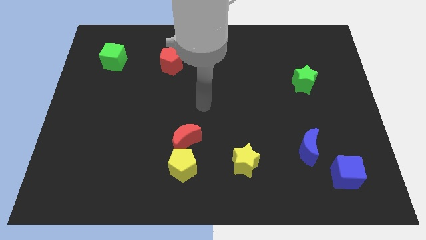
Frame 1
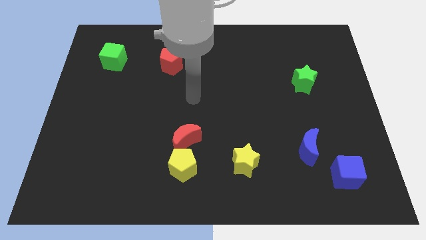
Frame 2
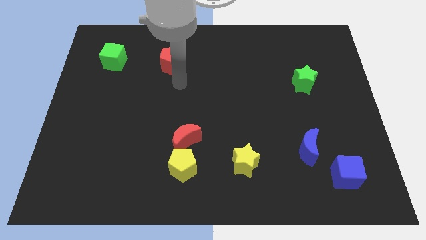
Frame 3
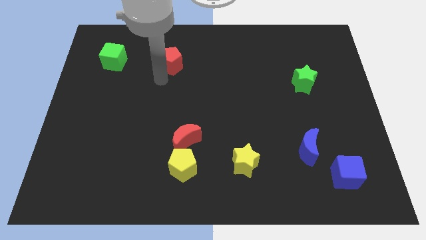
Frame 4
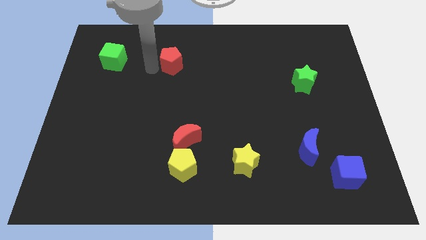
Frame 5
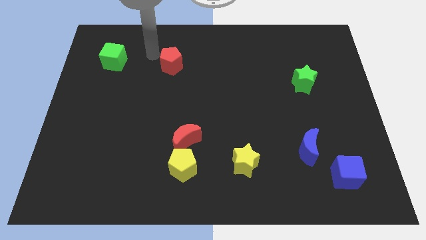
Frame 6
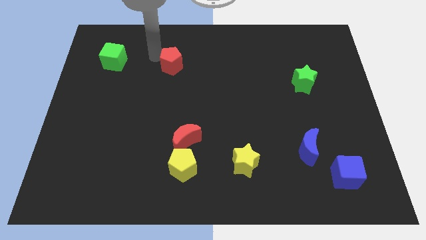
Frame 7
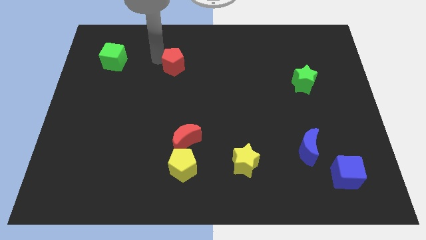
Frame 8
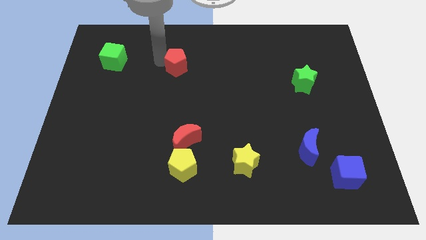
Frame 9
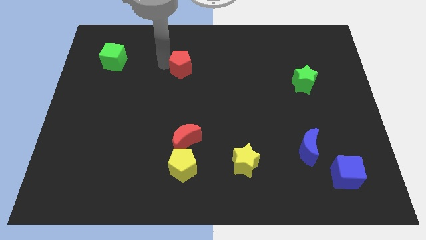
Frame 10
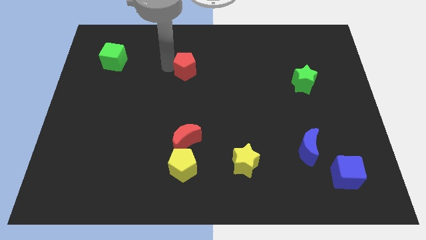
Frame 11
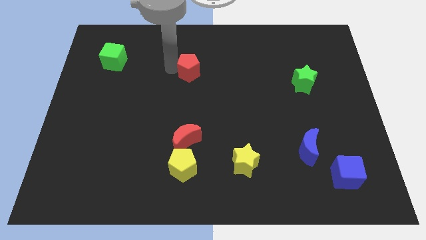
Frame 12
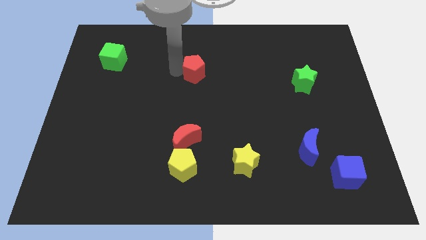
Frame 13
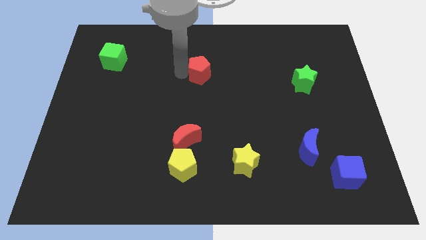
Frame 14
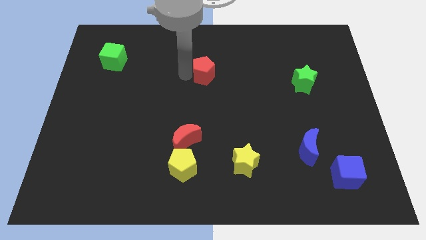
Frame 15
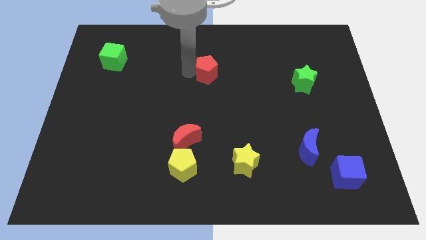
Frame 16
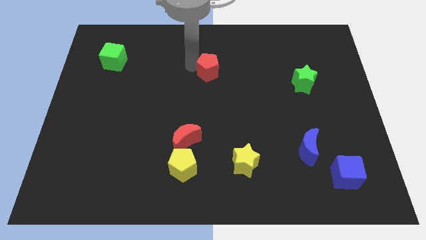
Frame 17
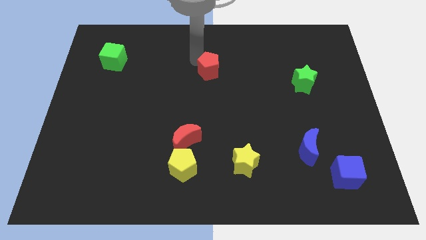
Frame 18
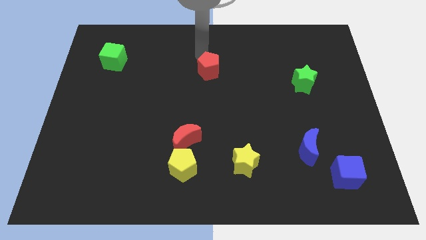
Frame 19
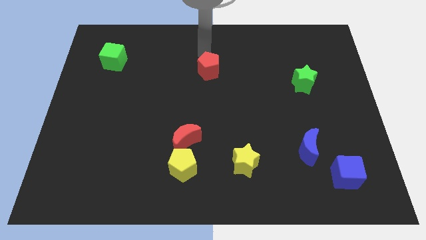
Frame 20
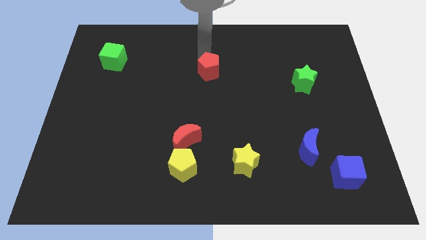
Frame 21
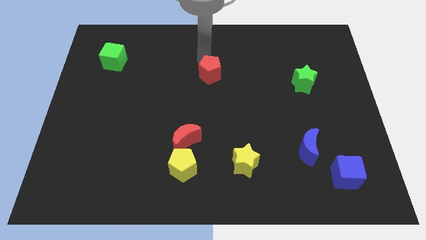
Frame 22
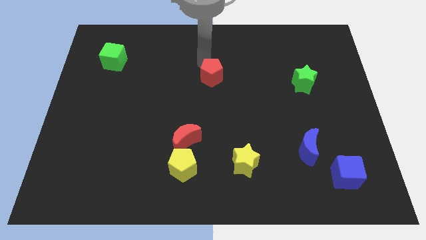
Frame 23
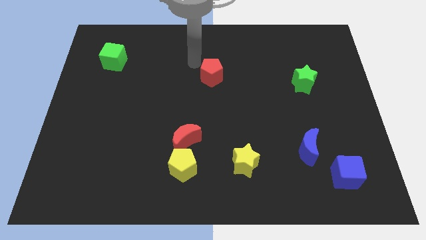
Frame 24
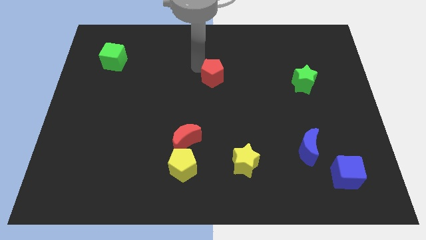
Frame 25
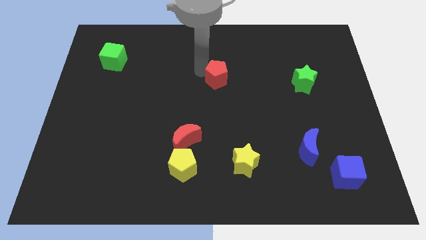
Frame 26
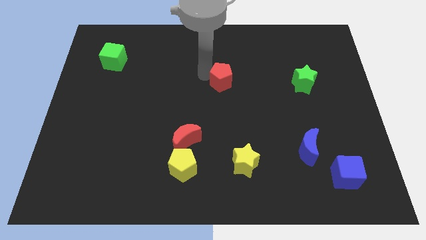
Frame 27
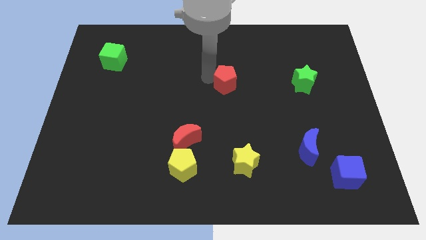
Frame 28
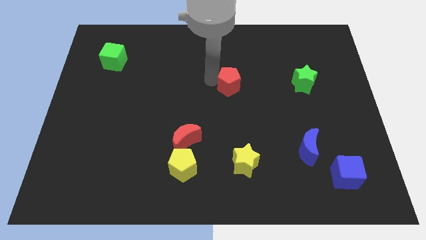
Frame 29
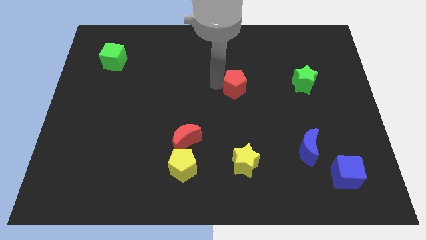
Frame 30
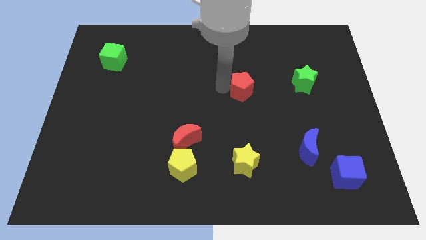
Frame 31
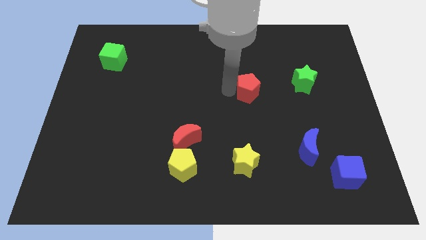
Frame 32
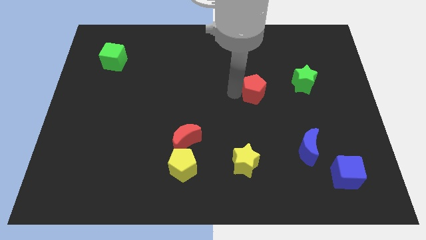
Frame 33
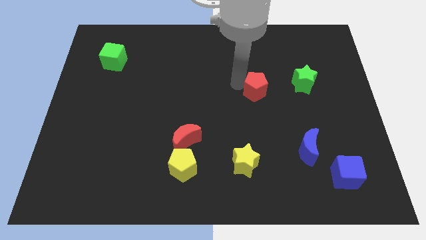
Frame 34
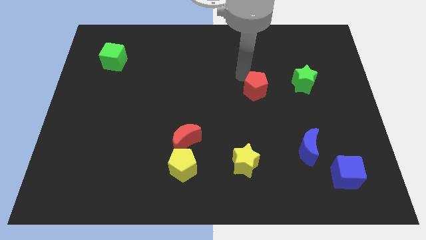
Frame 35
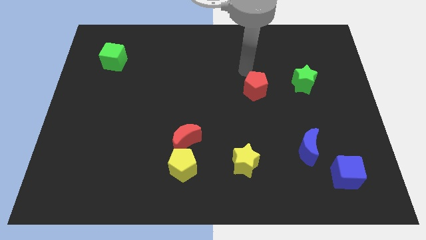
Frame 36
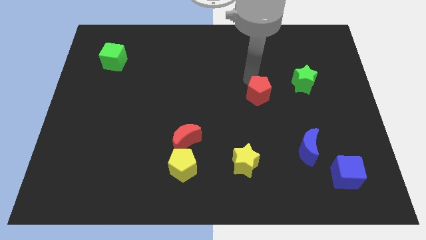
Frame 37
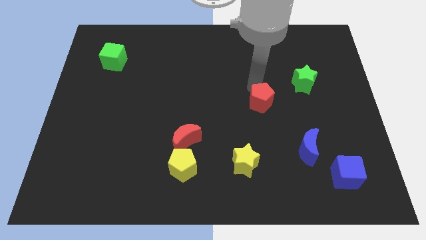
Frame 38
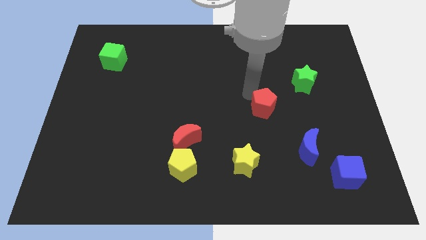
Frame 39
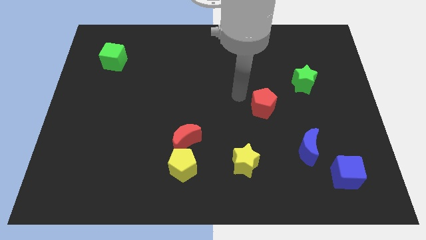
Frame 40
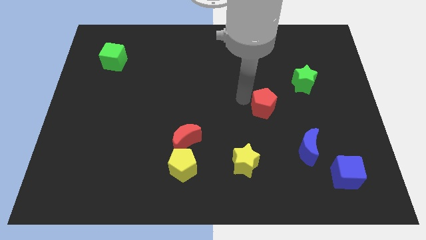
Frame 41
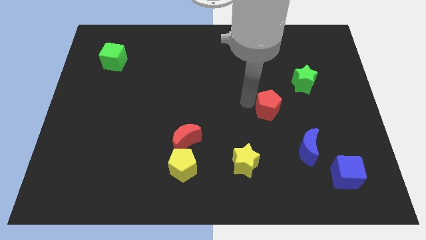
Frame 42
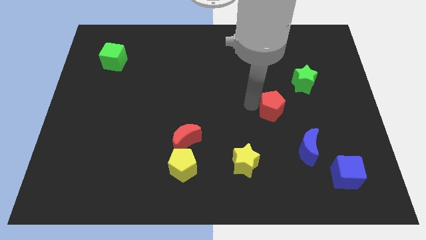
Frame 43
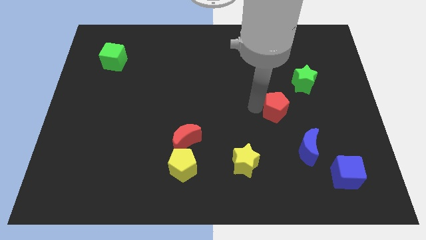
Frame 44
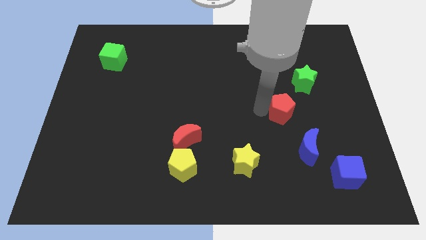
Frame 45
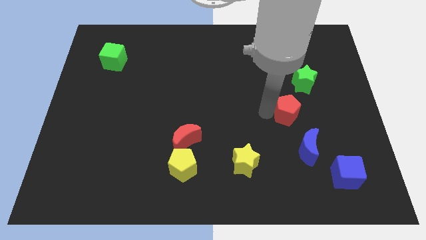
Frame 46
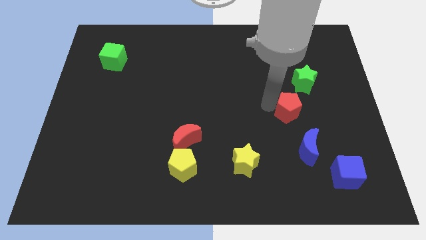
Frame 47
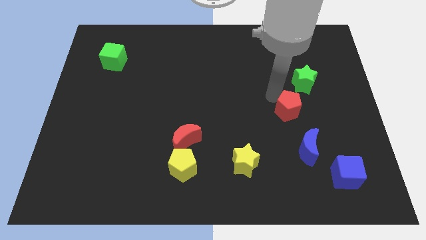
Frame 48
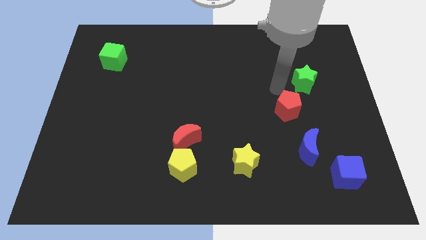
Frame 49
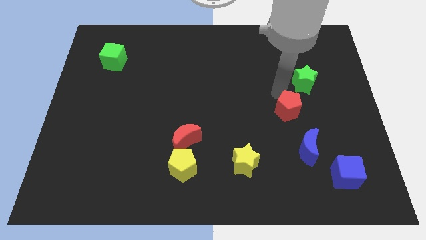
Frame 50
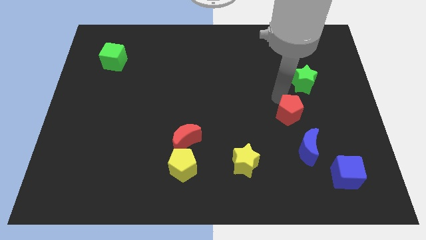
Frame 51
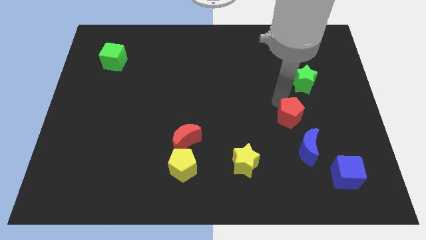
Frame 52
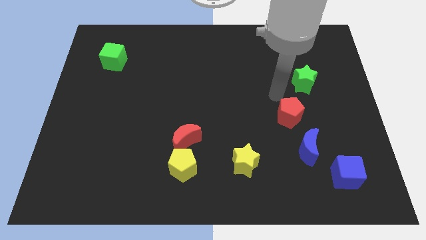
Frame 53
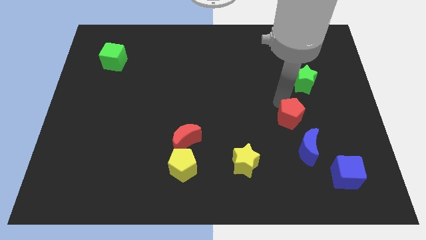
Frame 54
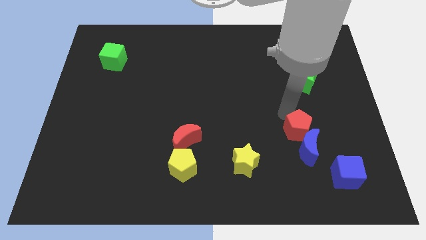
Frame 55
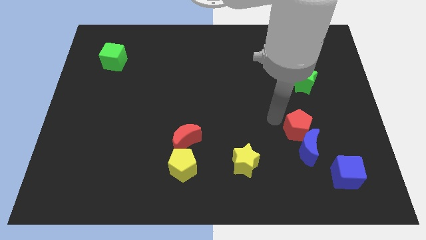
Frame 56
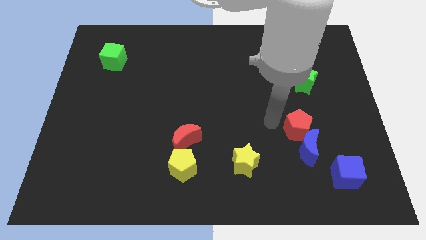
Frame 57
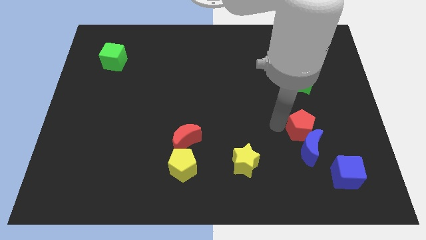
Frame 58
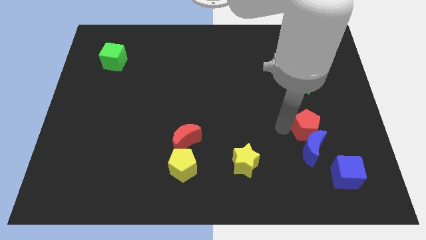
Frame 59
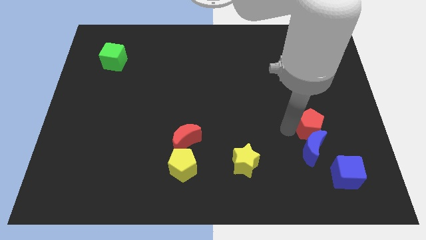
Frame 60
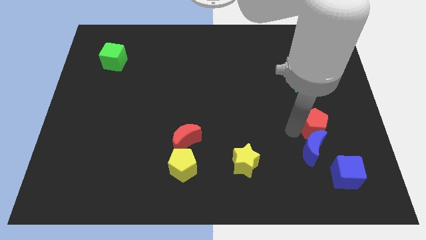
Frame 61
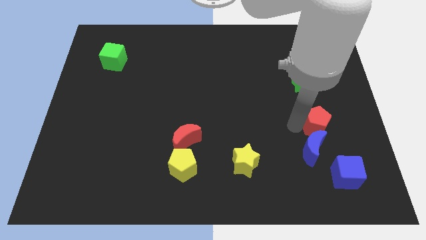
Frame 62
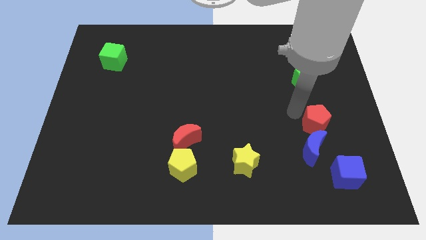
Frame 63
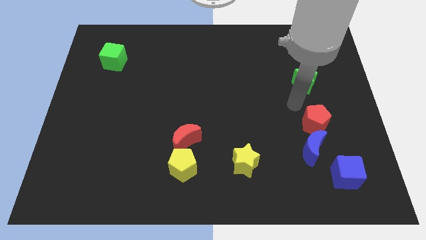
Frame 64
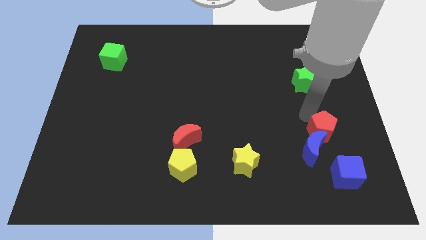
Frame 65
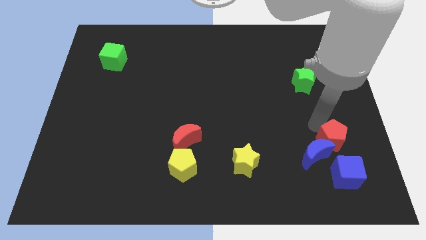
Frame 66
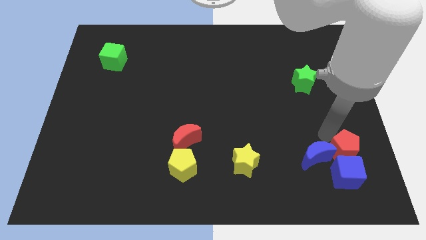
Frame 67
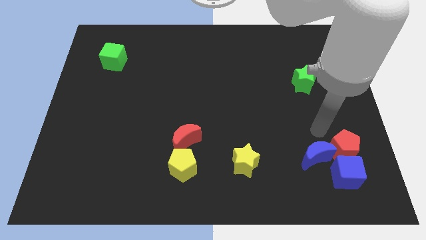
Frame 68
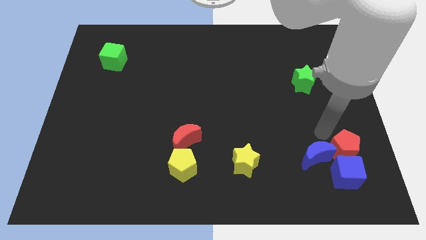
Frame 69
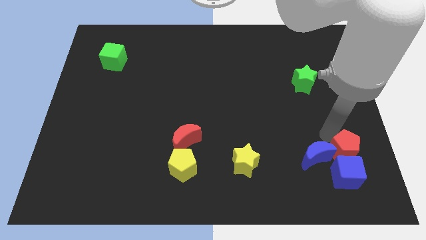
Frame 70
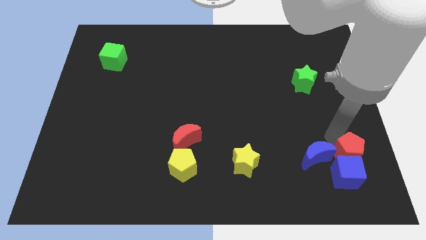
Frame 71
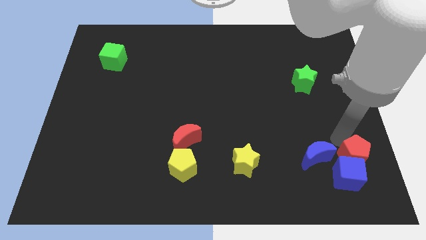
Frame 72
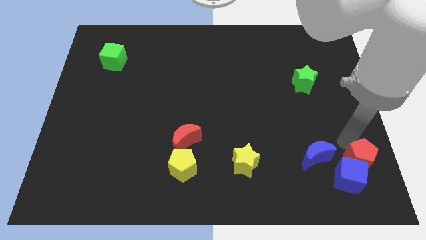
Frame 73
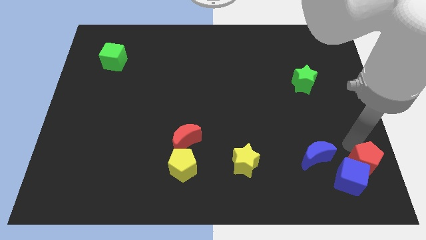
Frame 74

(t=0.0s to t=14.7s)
push the red pentagon to the bottom right

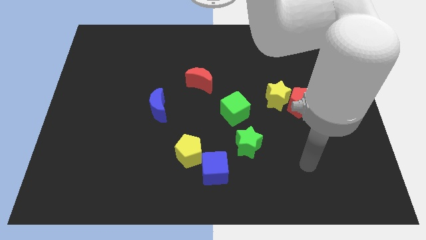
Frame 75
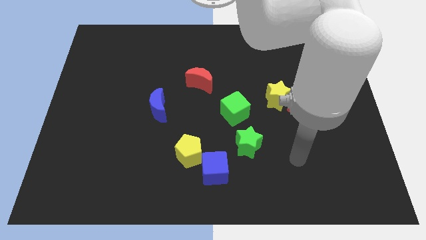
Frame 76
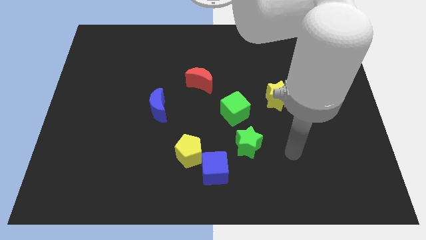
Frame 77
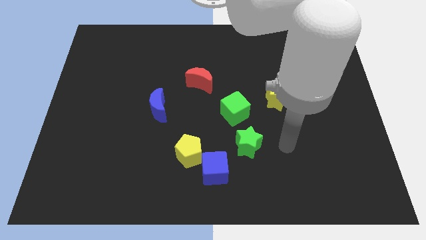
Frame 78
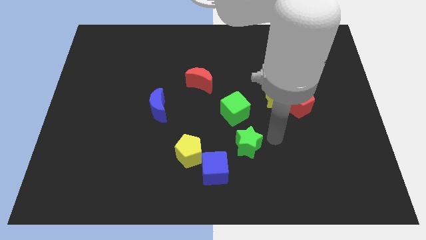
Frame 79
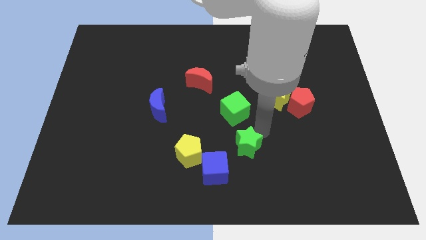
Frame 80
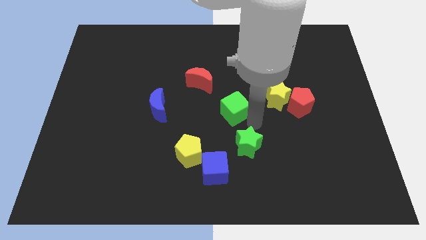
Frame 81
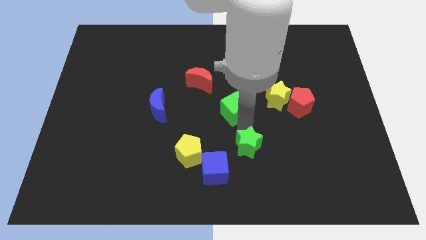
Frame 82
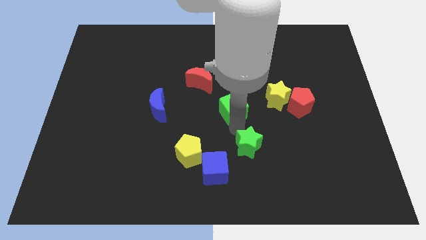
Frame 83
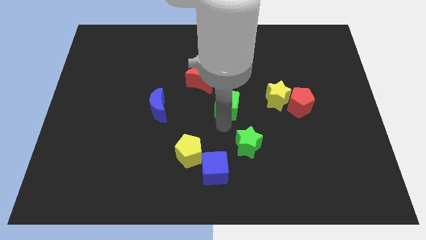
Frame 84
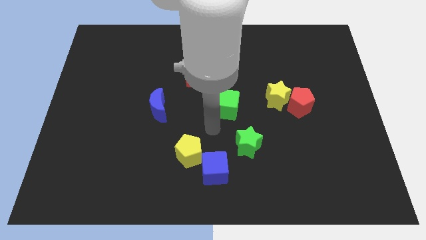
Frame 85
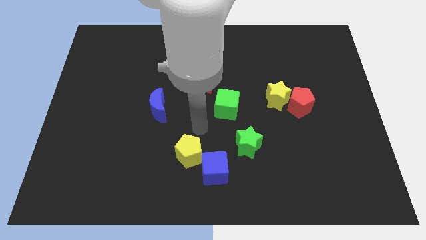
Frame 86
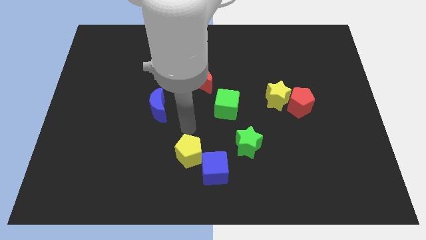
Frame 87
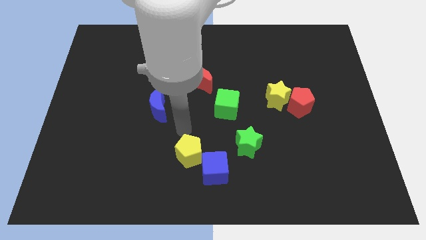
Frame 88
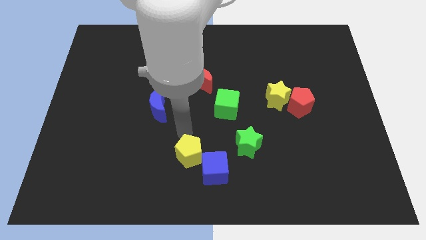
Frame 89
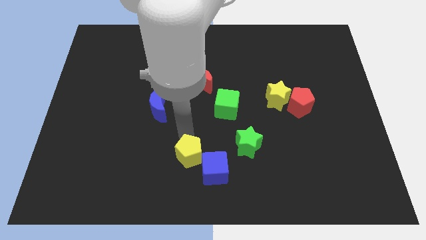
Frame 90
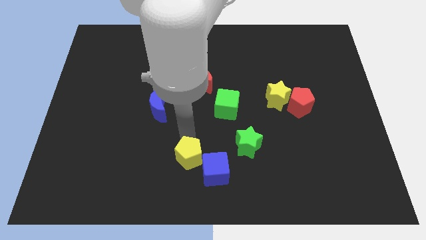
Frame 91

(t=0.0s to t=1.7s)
push the yellow pentagon to the bottom side
